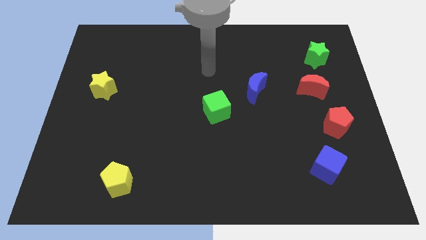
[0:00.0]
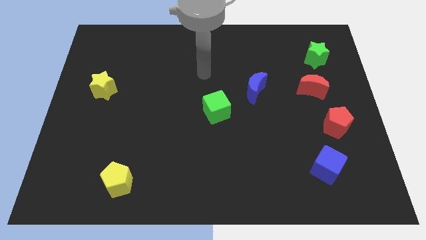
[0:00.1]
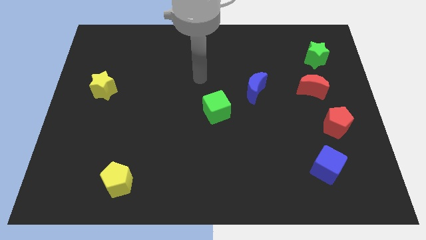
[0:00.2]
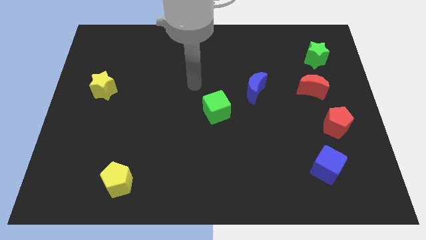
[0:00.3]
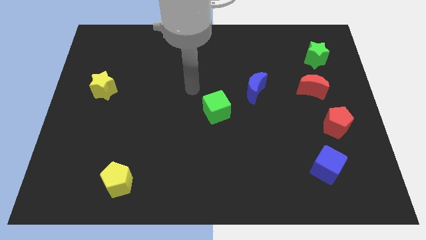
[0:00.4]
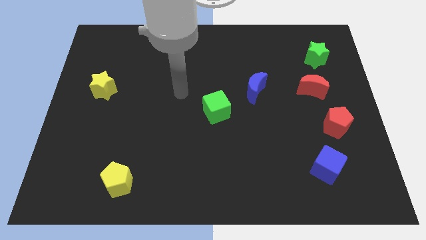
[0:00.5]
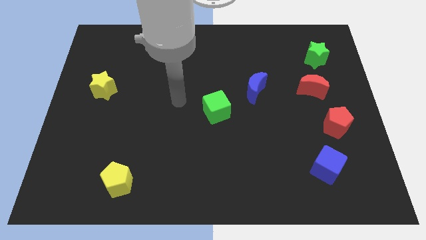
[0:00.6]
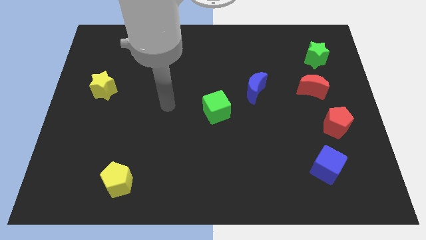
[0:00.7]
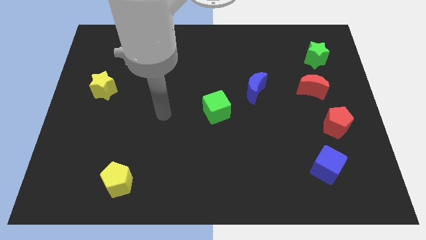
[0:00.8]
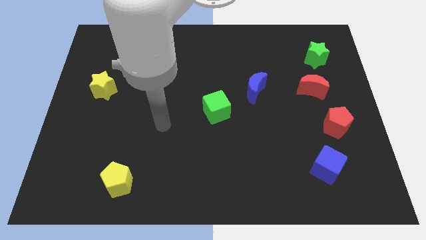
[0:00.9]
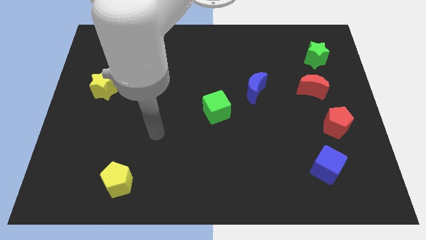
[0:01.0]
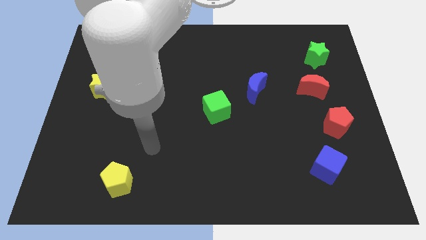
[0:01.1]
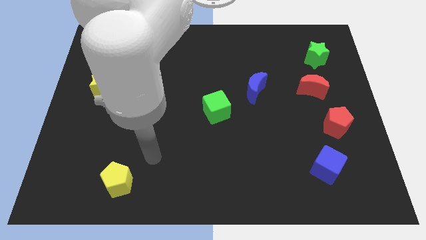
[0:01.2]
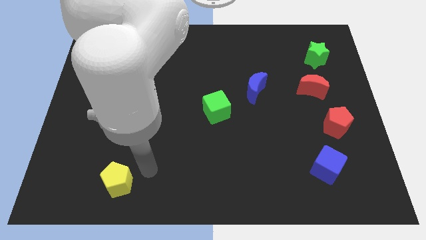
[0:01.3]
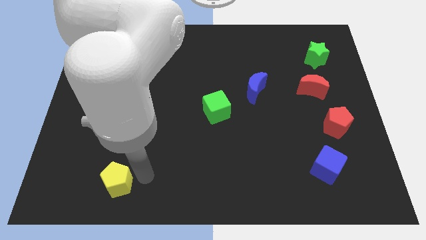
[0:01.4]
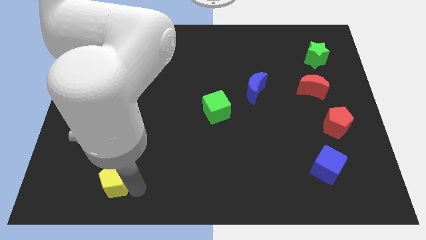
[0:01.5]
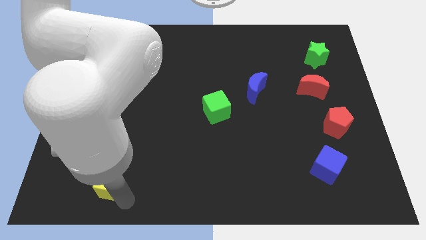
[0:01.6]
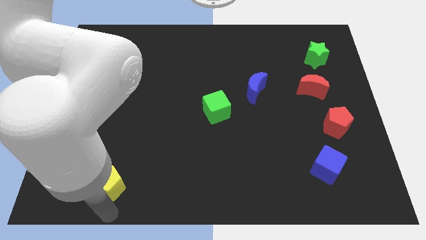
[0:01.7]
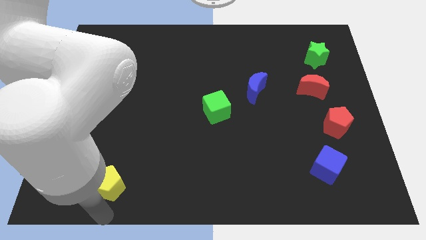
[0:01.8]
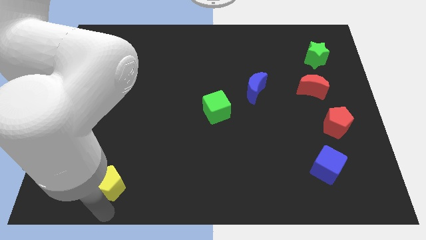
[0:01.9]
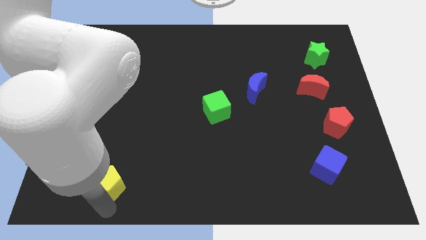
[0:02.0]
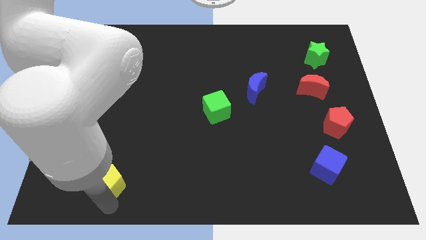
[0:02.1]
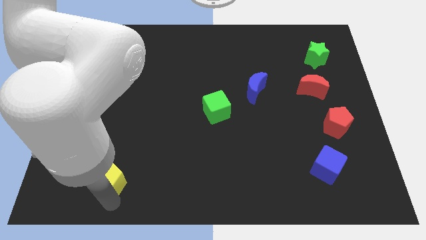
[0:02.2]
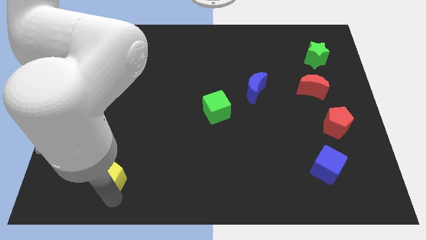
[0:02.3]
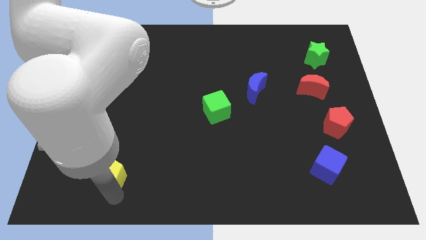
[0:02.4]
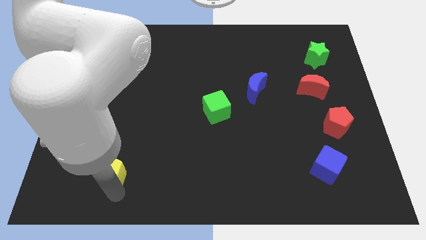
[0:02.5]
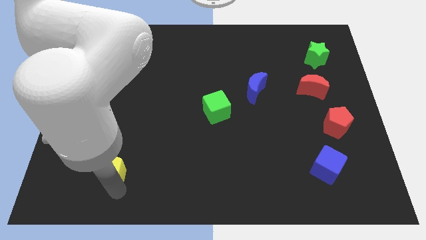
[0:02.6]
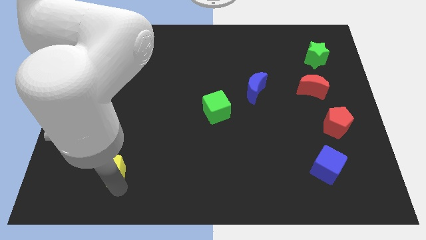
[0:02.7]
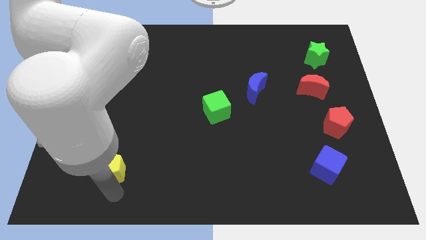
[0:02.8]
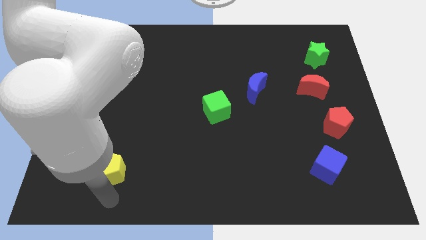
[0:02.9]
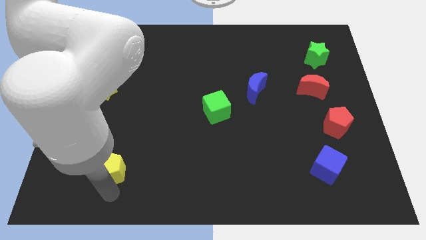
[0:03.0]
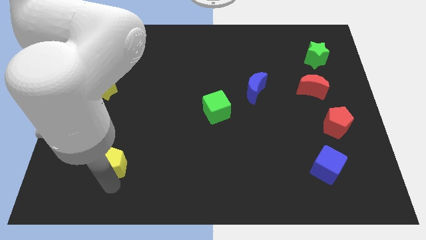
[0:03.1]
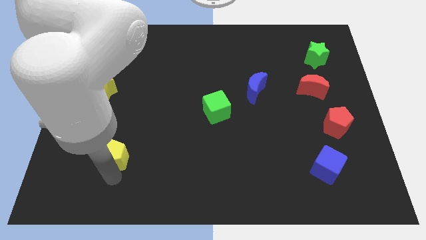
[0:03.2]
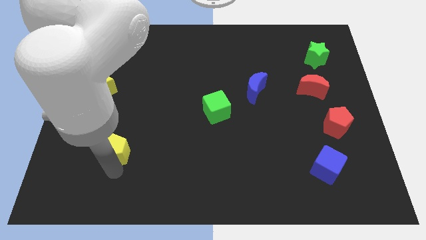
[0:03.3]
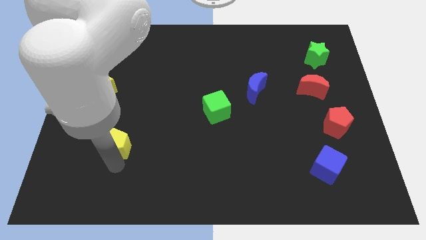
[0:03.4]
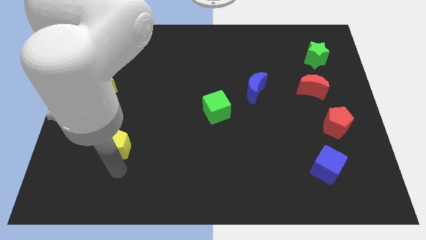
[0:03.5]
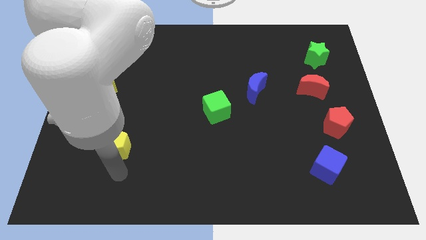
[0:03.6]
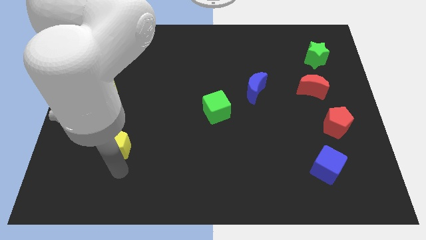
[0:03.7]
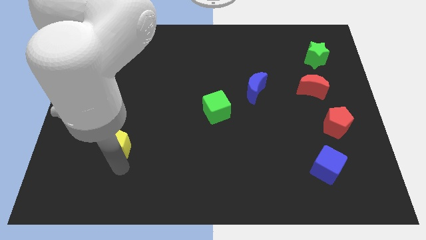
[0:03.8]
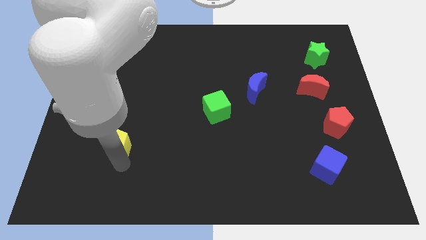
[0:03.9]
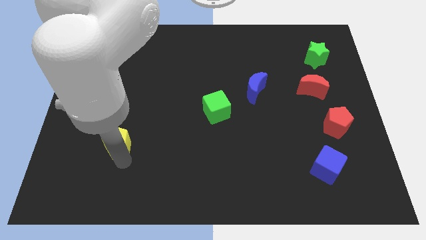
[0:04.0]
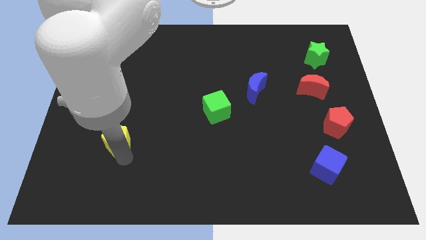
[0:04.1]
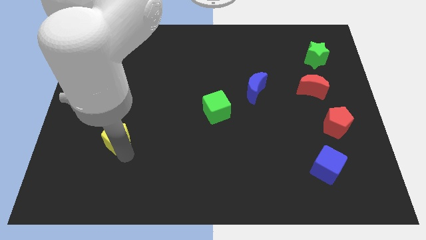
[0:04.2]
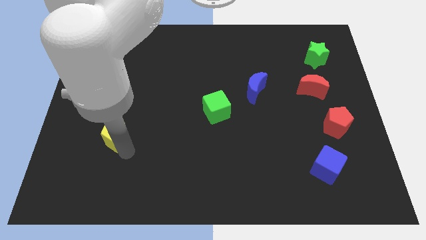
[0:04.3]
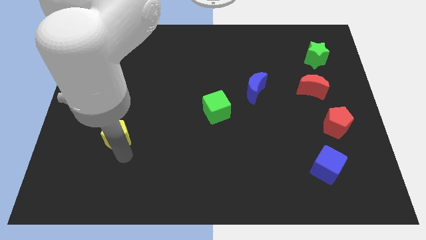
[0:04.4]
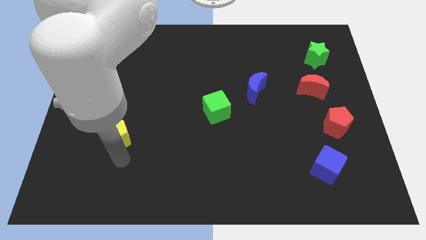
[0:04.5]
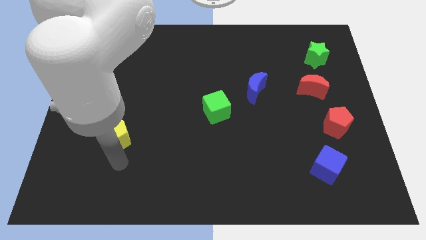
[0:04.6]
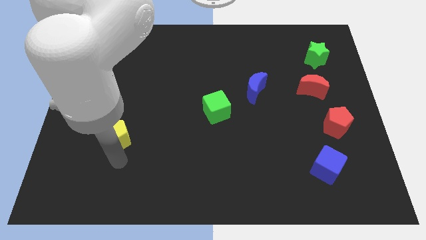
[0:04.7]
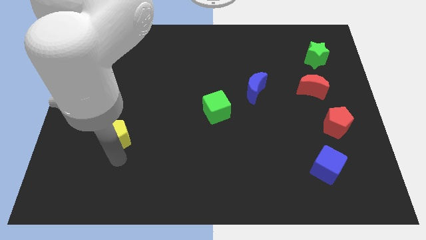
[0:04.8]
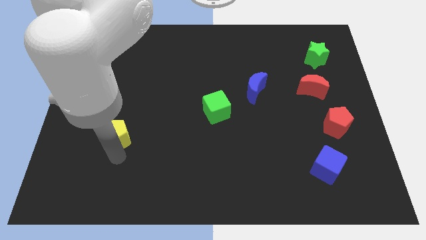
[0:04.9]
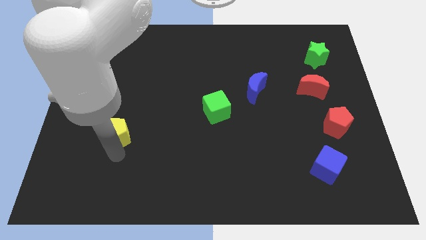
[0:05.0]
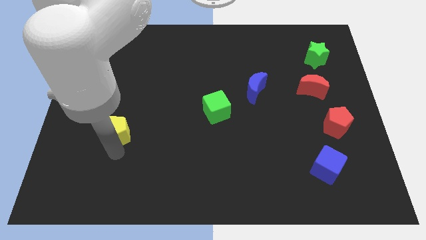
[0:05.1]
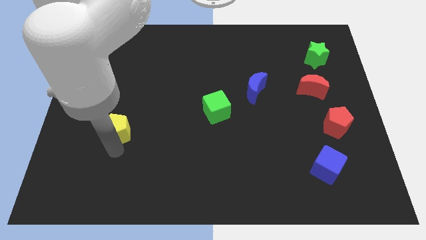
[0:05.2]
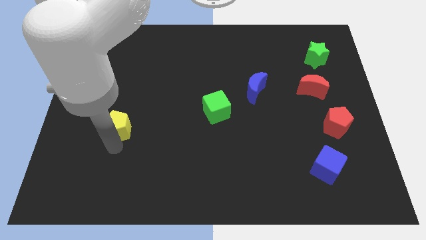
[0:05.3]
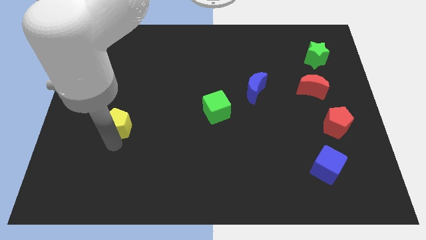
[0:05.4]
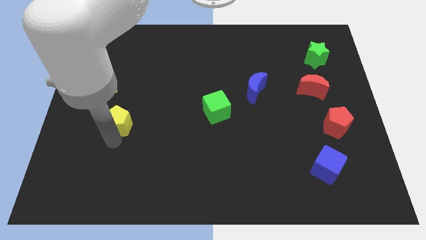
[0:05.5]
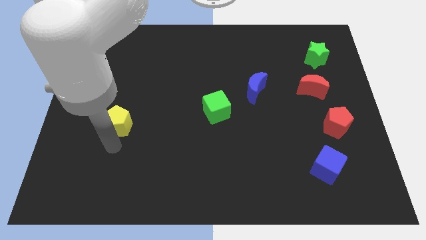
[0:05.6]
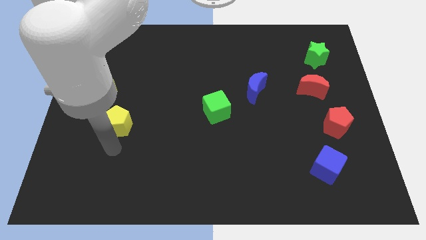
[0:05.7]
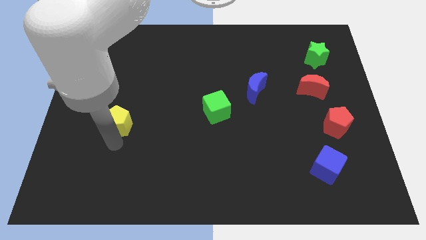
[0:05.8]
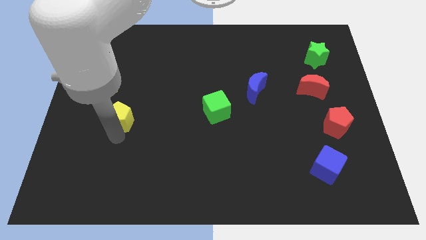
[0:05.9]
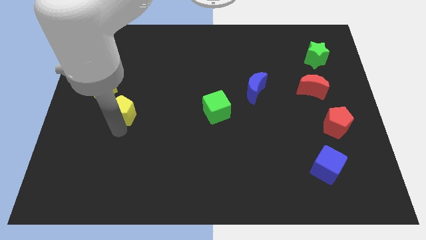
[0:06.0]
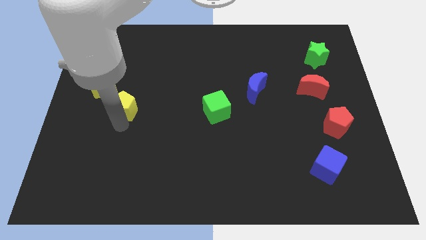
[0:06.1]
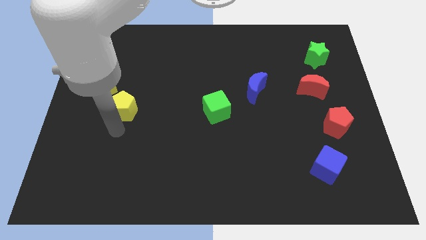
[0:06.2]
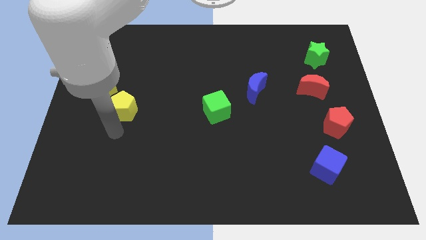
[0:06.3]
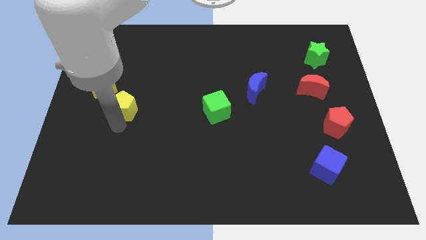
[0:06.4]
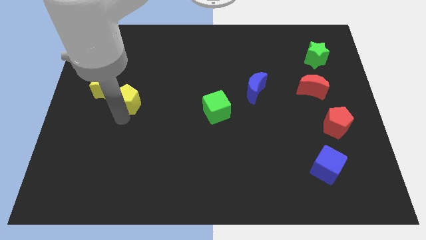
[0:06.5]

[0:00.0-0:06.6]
move the yellow pentagon upwards

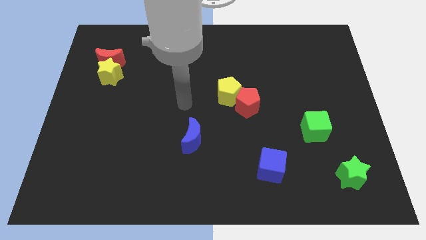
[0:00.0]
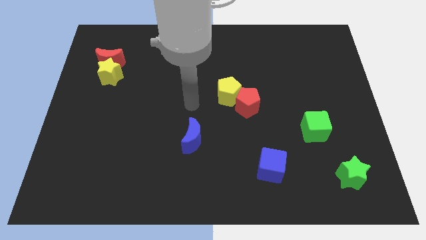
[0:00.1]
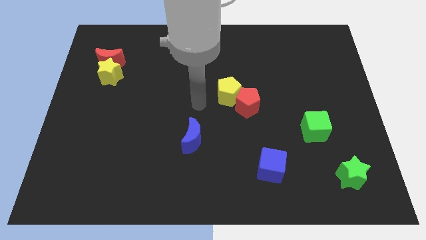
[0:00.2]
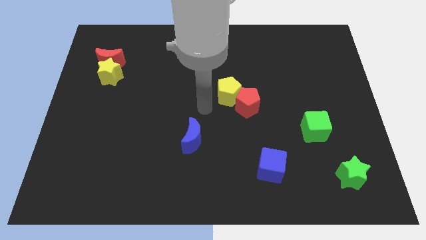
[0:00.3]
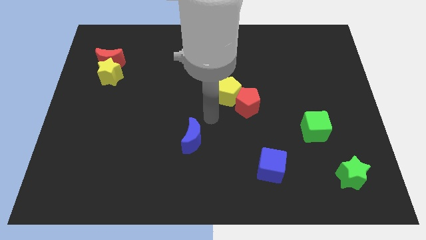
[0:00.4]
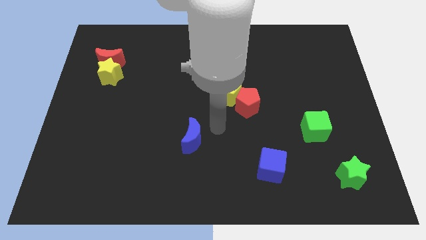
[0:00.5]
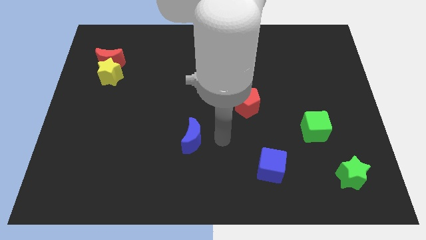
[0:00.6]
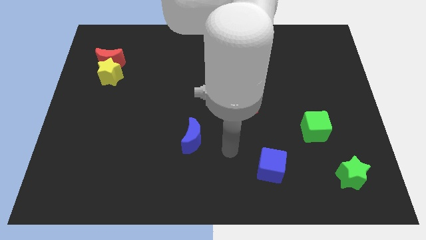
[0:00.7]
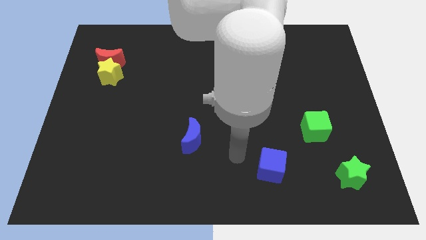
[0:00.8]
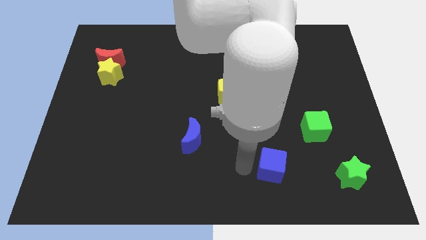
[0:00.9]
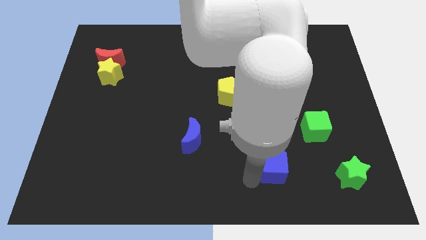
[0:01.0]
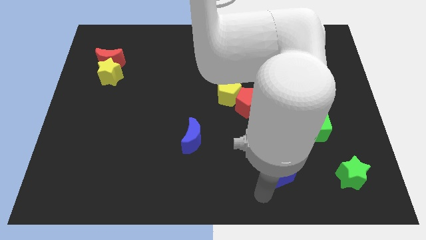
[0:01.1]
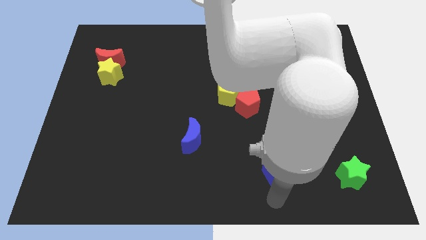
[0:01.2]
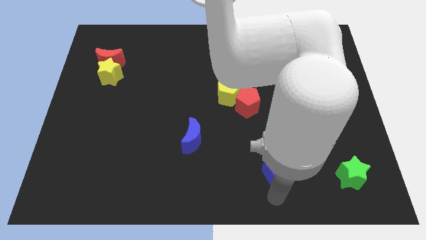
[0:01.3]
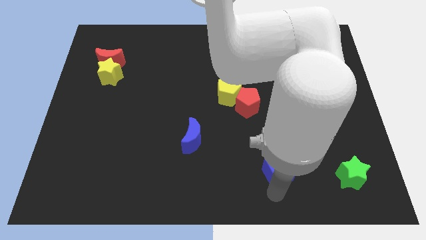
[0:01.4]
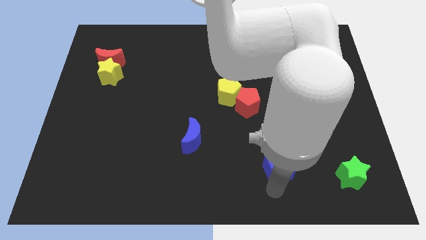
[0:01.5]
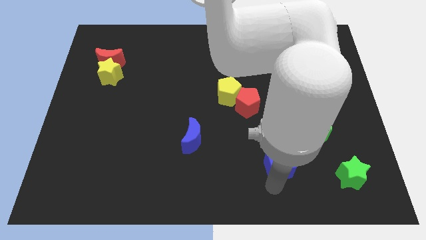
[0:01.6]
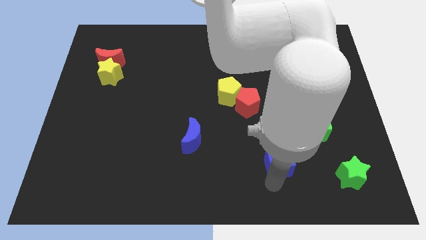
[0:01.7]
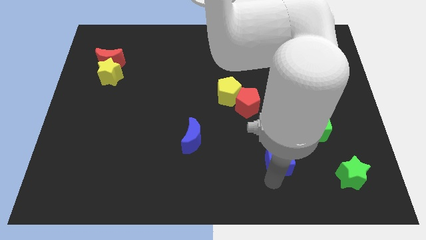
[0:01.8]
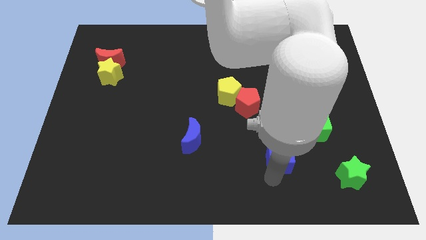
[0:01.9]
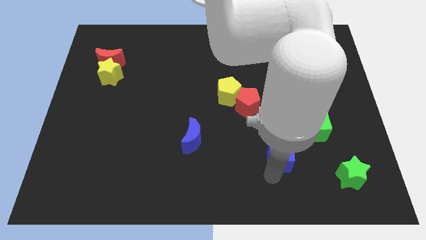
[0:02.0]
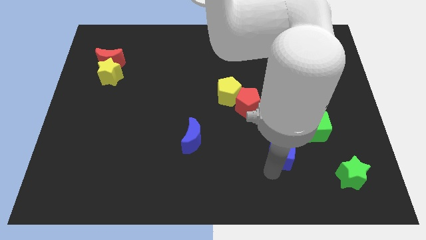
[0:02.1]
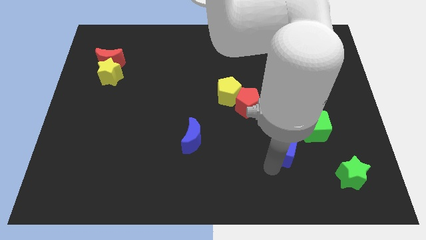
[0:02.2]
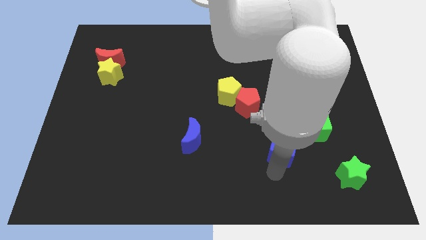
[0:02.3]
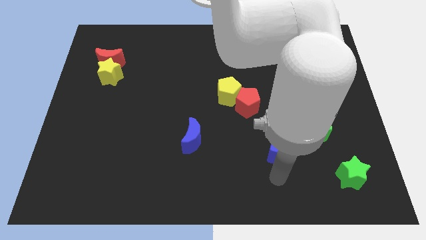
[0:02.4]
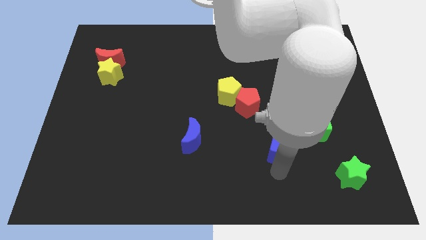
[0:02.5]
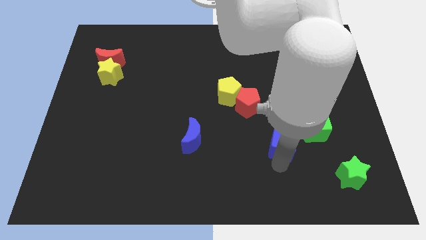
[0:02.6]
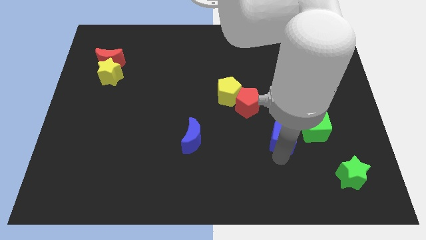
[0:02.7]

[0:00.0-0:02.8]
slightly move the blue cube up and right
